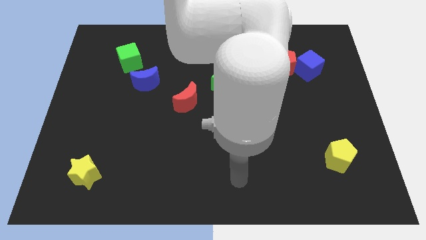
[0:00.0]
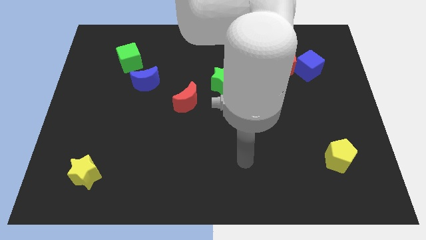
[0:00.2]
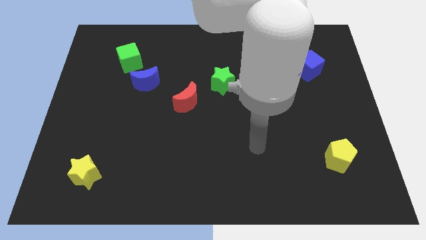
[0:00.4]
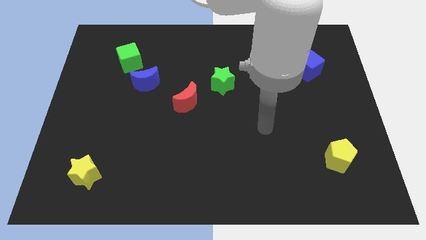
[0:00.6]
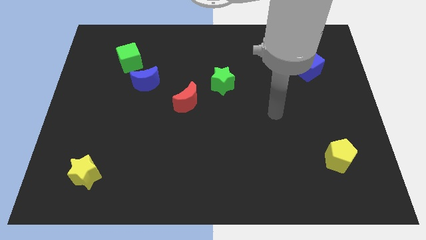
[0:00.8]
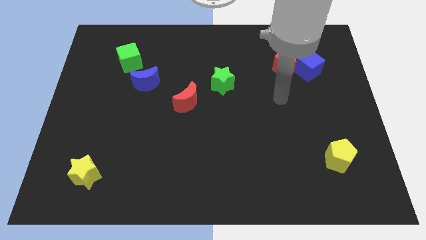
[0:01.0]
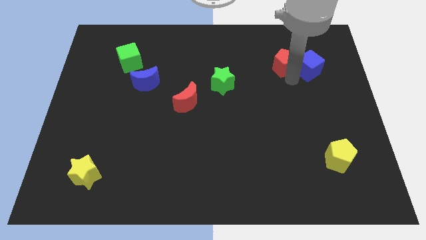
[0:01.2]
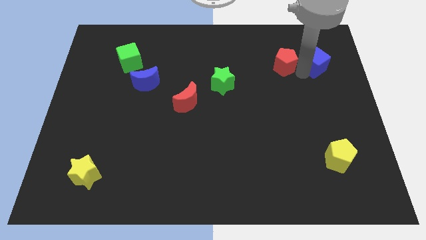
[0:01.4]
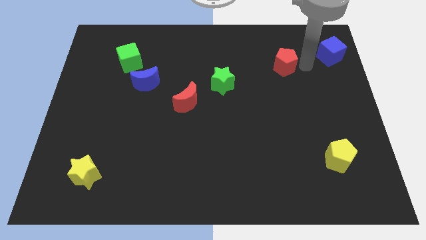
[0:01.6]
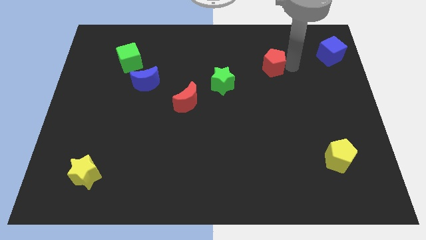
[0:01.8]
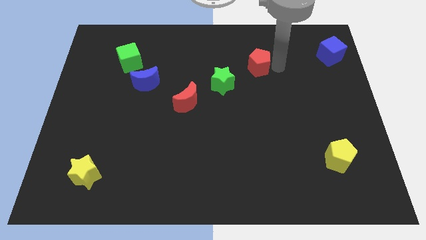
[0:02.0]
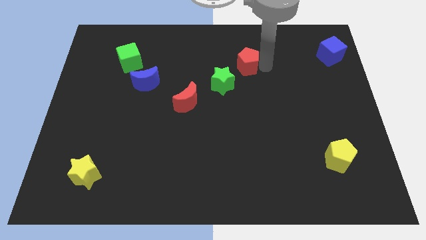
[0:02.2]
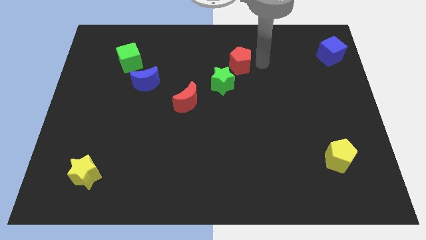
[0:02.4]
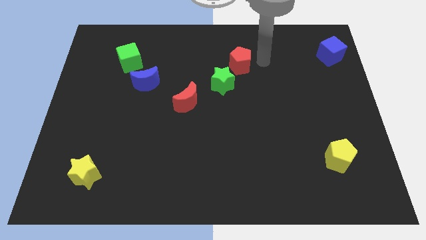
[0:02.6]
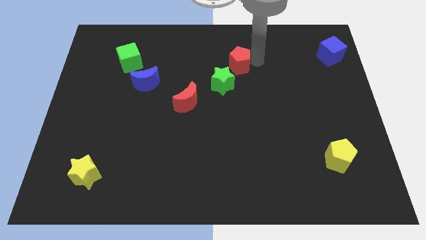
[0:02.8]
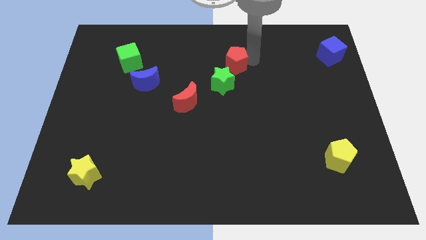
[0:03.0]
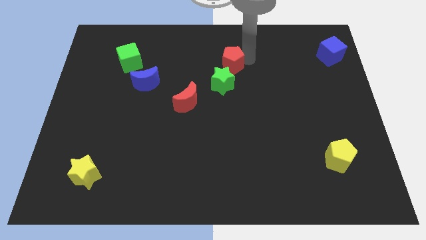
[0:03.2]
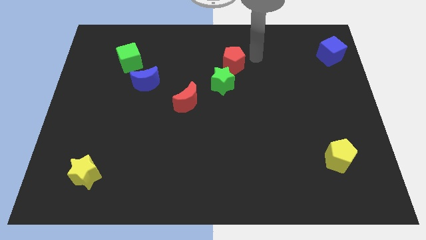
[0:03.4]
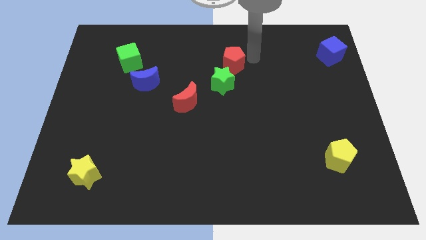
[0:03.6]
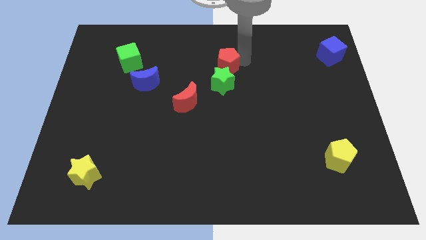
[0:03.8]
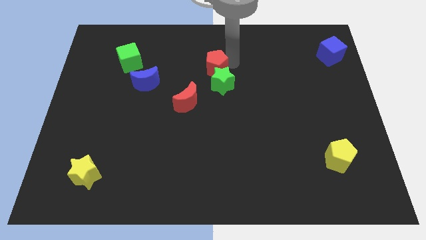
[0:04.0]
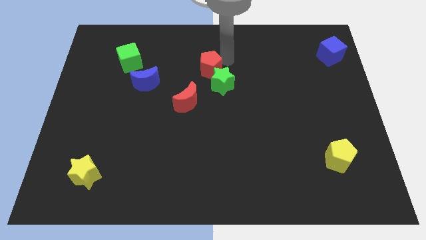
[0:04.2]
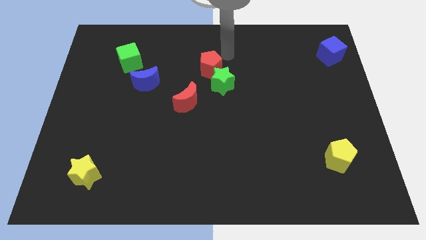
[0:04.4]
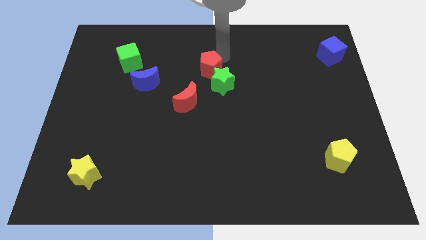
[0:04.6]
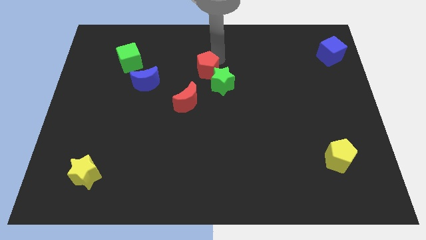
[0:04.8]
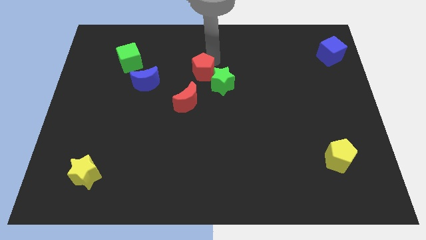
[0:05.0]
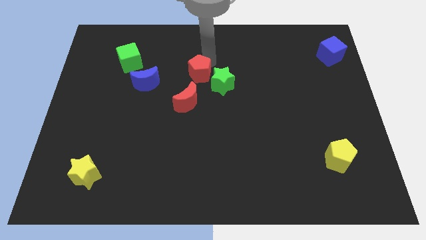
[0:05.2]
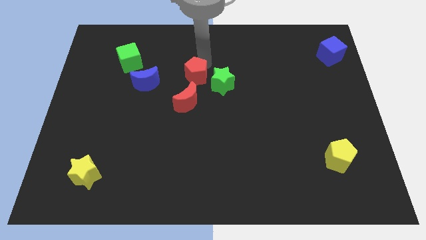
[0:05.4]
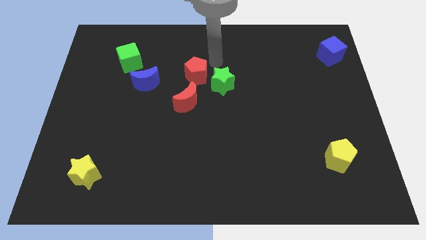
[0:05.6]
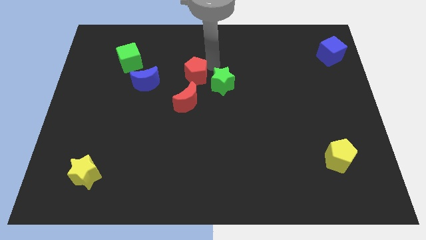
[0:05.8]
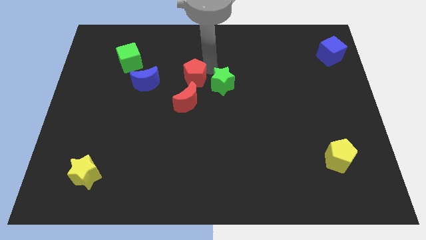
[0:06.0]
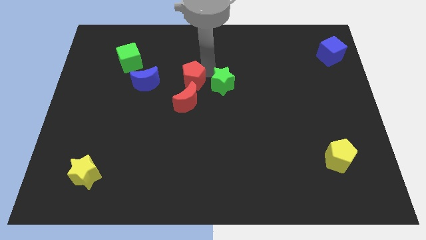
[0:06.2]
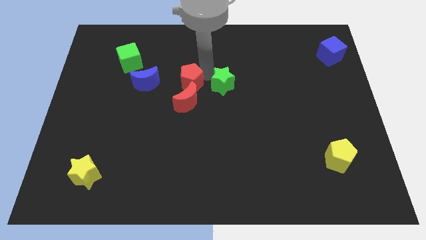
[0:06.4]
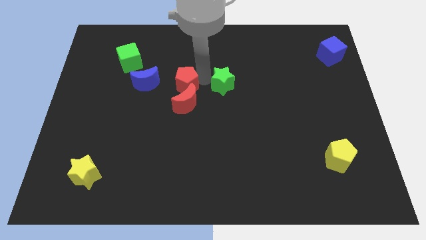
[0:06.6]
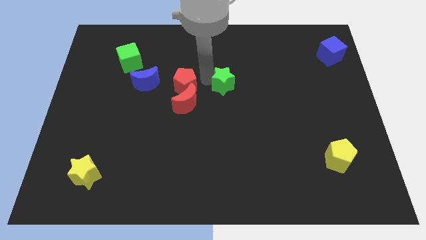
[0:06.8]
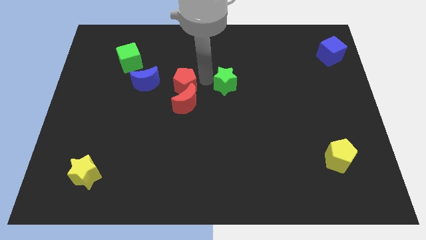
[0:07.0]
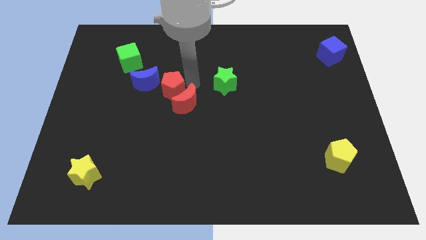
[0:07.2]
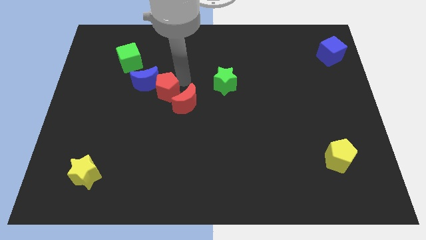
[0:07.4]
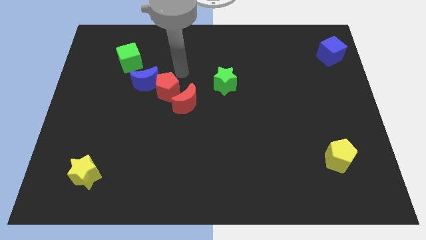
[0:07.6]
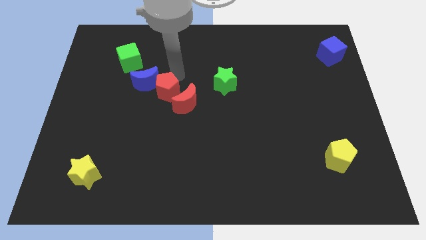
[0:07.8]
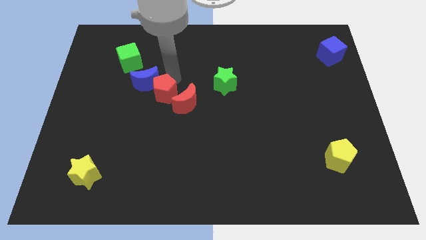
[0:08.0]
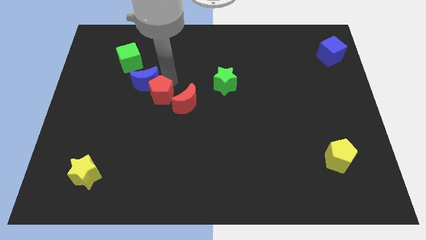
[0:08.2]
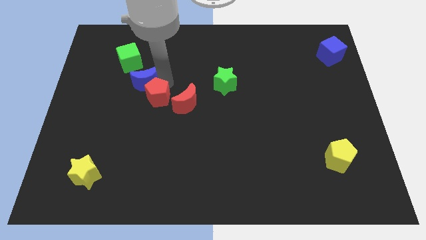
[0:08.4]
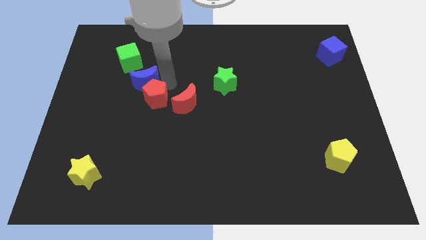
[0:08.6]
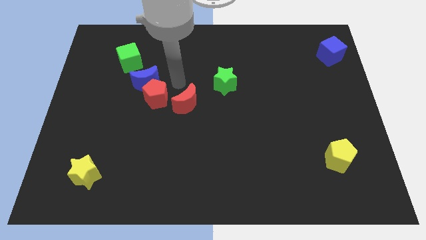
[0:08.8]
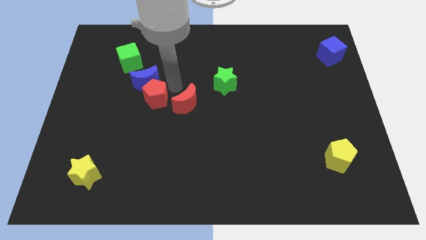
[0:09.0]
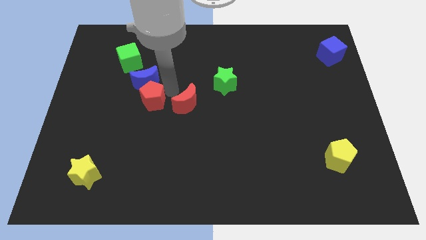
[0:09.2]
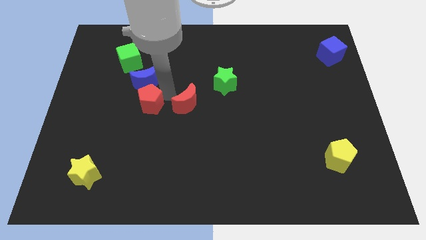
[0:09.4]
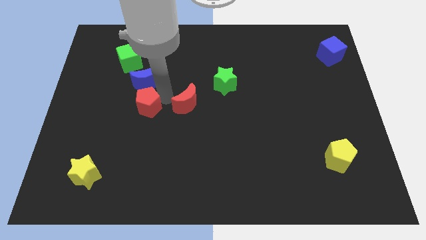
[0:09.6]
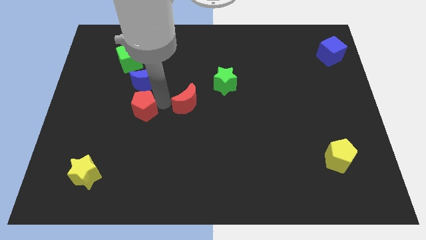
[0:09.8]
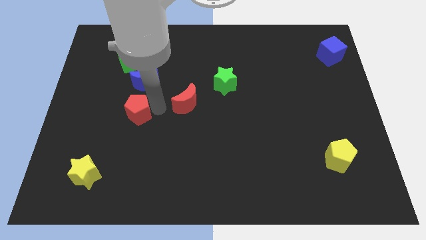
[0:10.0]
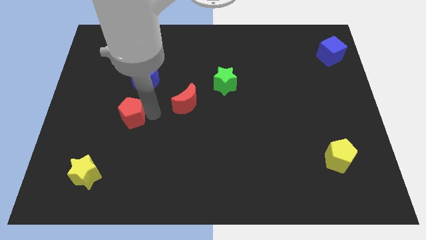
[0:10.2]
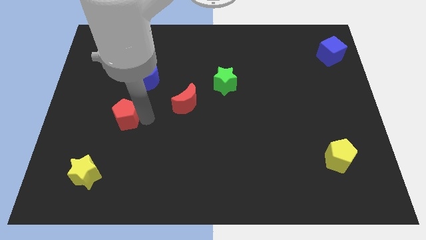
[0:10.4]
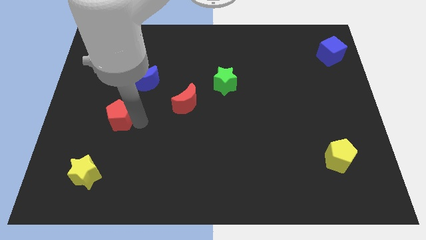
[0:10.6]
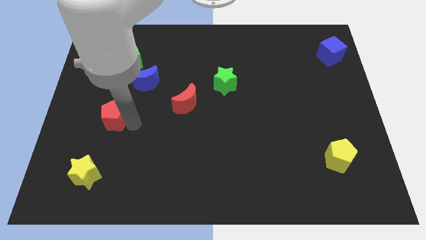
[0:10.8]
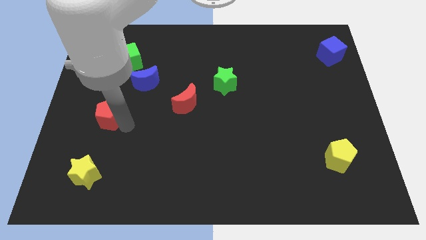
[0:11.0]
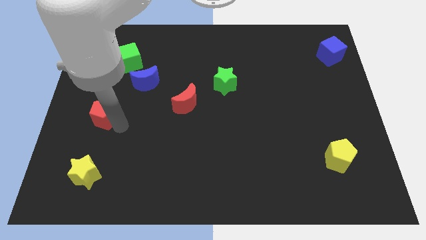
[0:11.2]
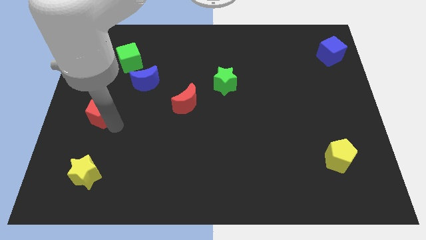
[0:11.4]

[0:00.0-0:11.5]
put the red pentagon to the left side
